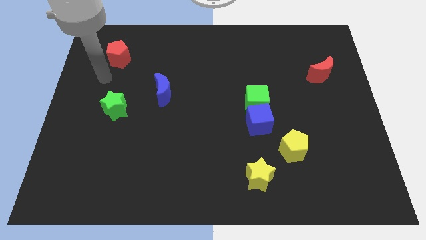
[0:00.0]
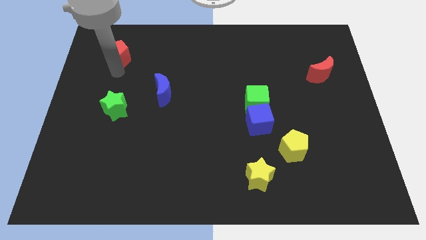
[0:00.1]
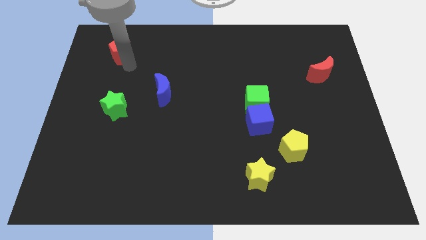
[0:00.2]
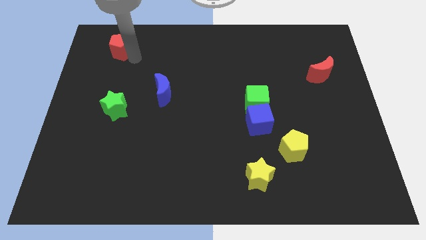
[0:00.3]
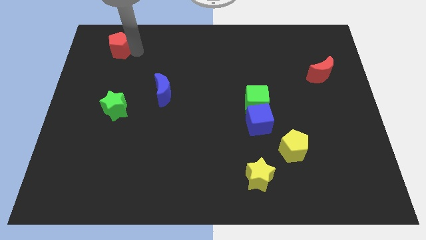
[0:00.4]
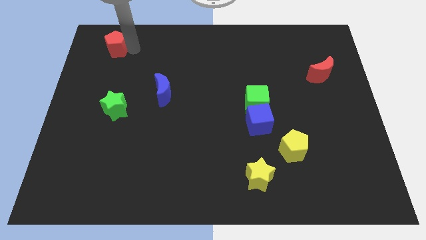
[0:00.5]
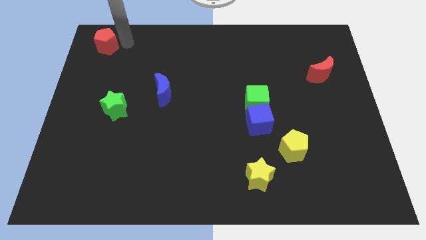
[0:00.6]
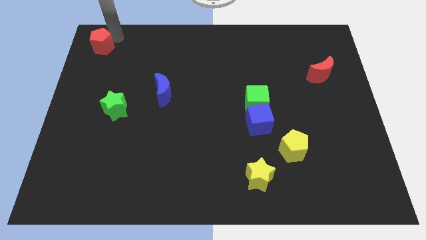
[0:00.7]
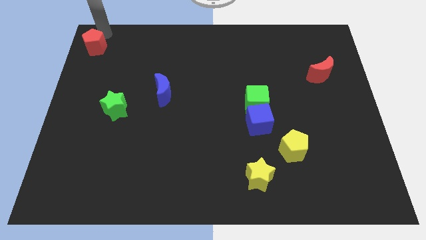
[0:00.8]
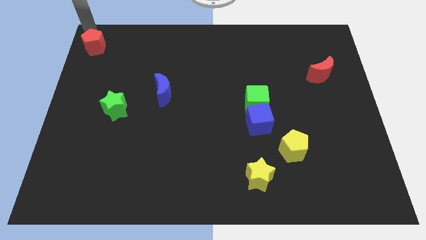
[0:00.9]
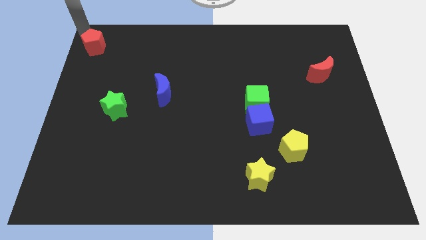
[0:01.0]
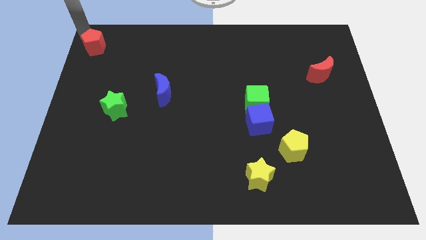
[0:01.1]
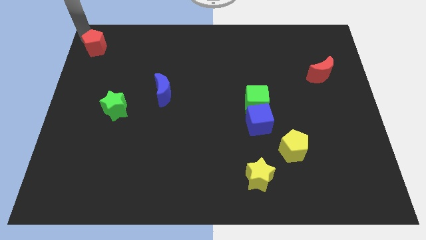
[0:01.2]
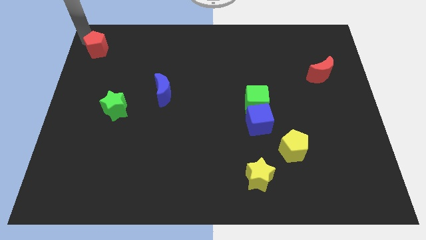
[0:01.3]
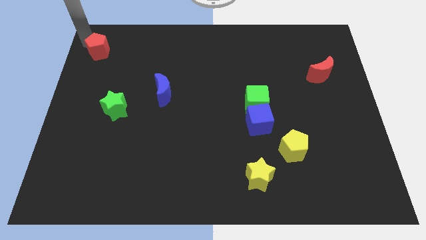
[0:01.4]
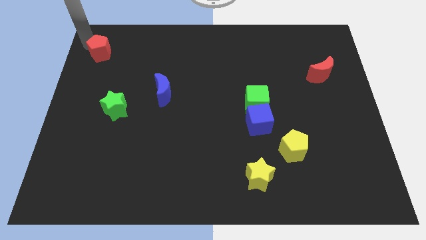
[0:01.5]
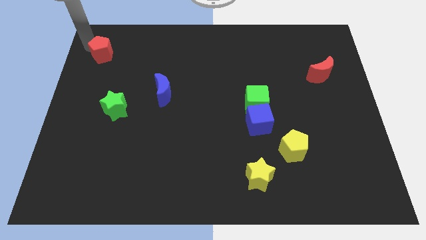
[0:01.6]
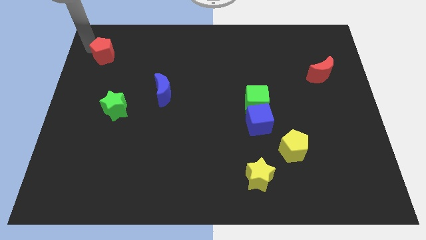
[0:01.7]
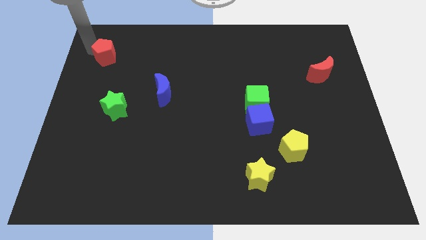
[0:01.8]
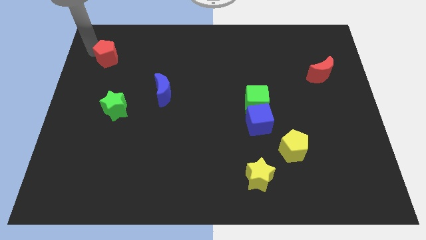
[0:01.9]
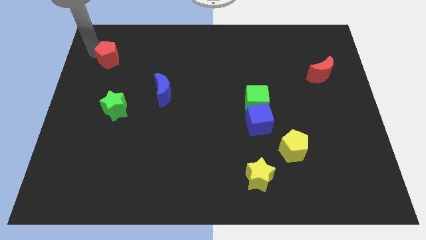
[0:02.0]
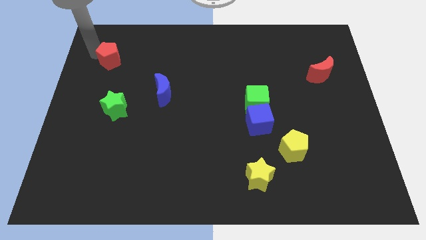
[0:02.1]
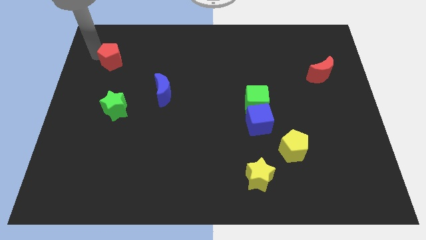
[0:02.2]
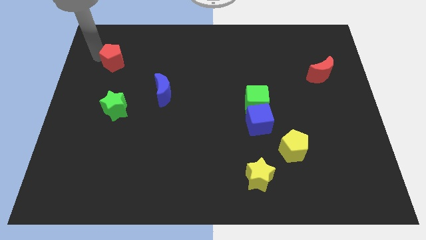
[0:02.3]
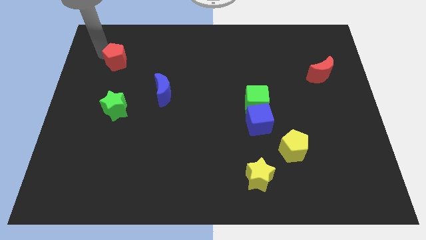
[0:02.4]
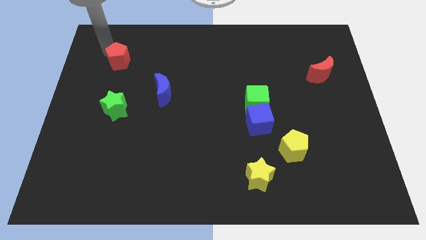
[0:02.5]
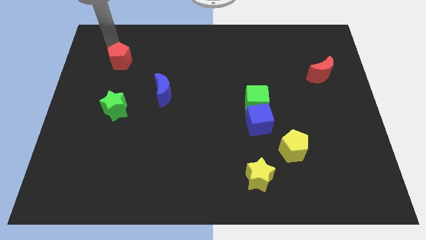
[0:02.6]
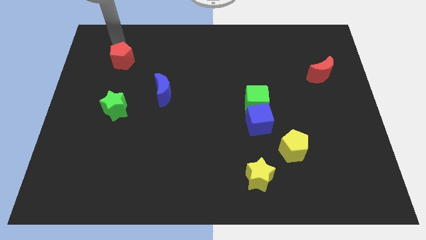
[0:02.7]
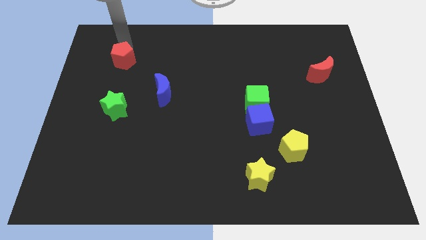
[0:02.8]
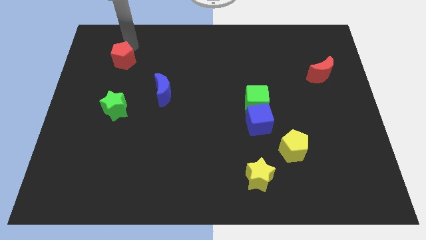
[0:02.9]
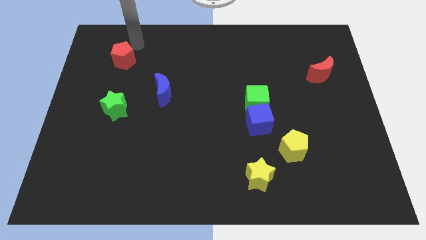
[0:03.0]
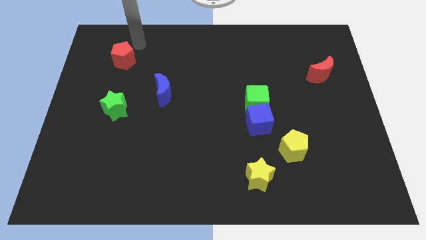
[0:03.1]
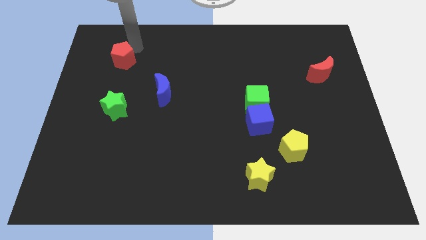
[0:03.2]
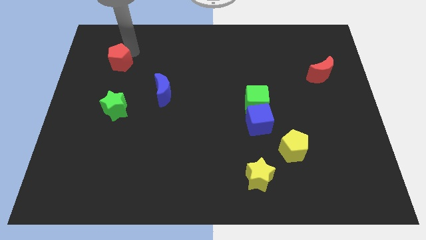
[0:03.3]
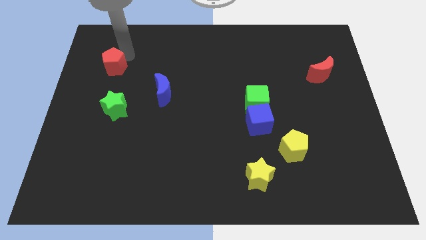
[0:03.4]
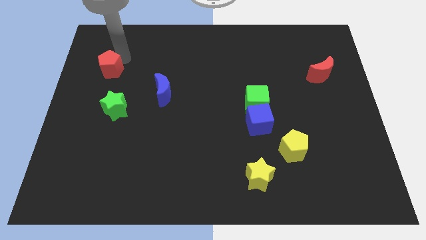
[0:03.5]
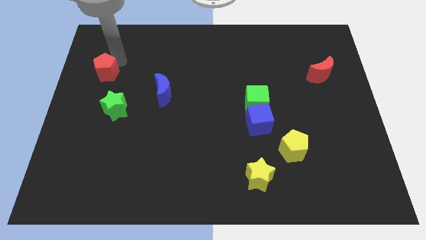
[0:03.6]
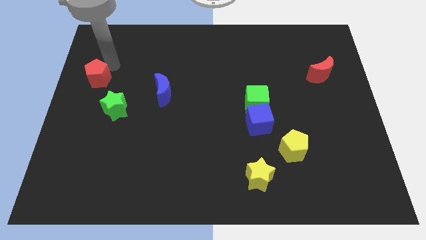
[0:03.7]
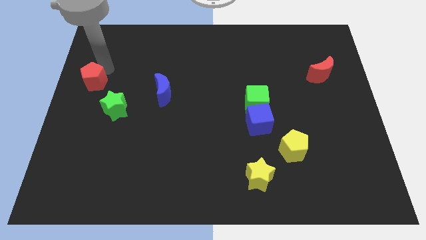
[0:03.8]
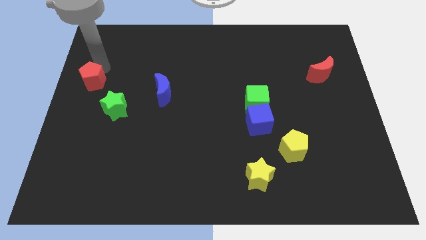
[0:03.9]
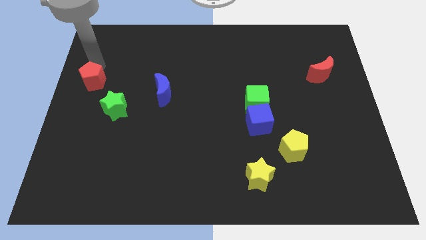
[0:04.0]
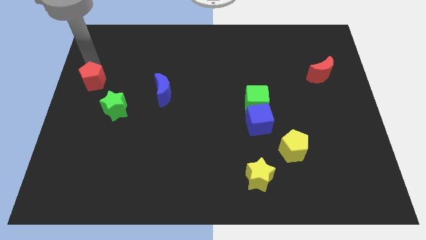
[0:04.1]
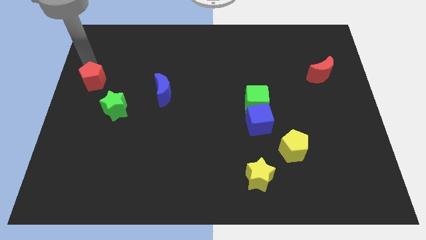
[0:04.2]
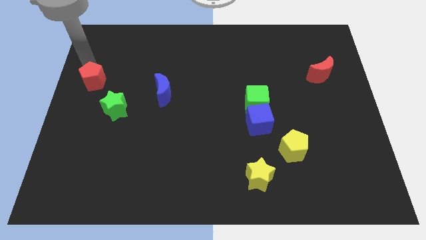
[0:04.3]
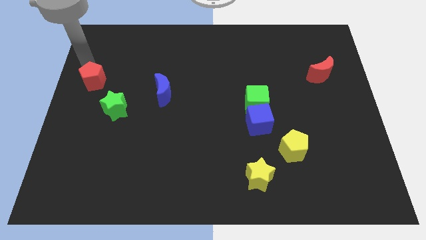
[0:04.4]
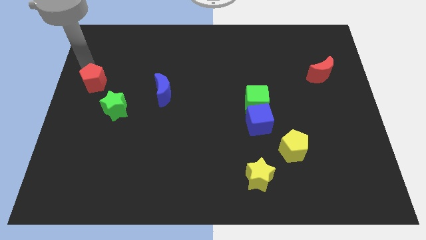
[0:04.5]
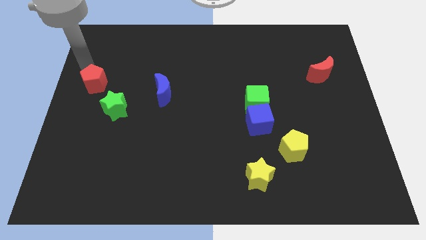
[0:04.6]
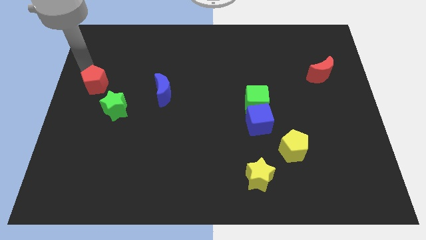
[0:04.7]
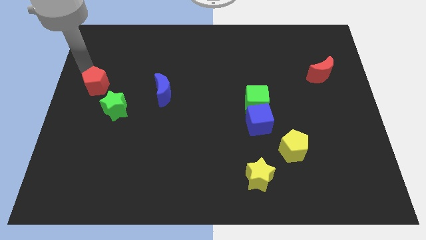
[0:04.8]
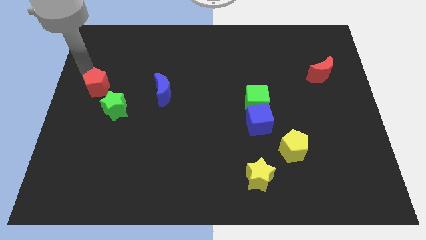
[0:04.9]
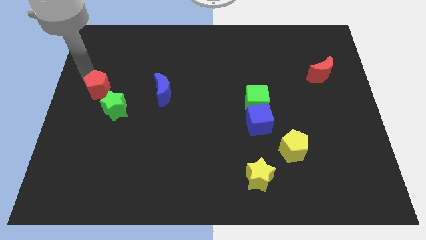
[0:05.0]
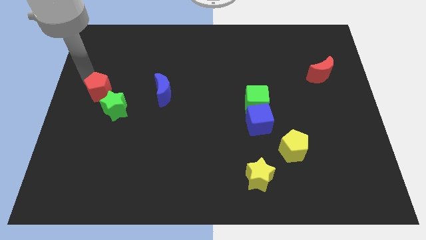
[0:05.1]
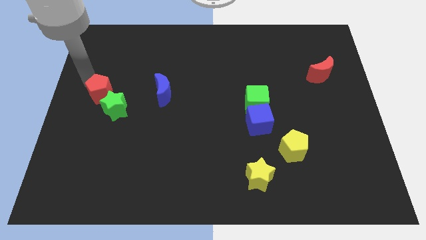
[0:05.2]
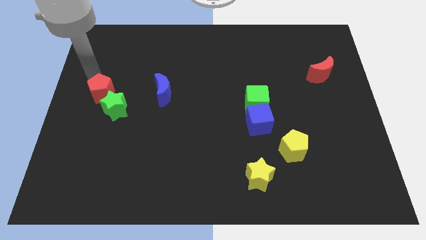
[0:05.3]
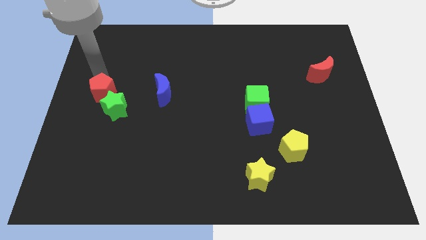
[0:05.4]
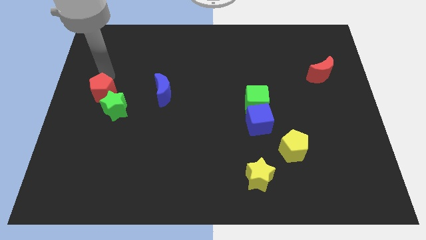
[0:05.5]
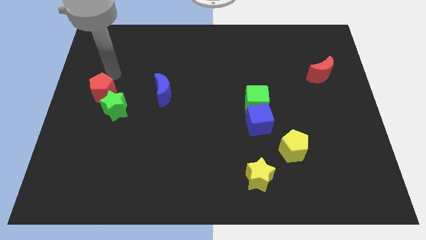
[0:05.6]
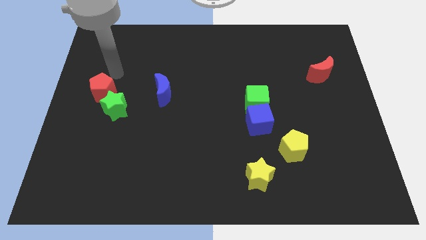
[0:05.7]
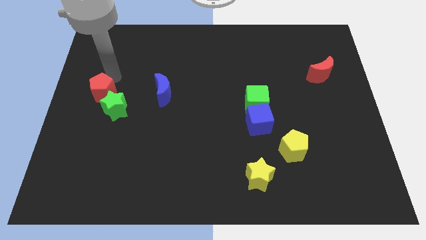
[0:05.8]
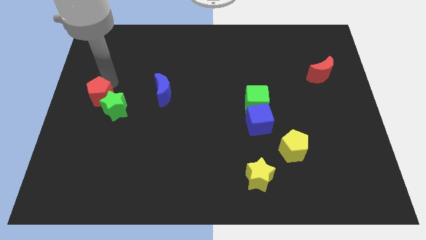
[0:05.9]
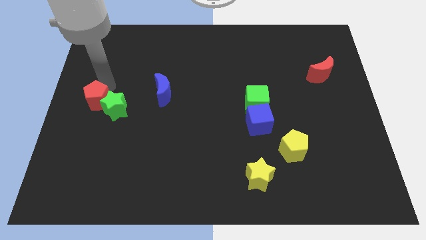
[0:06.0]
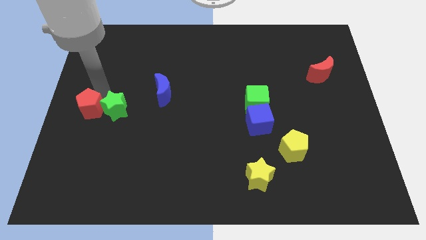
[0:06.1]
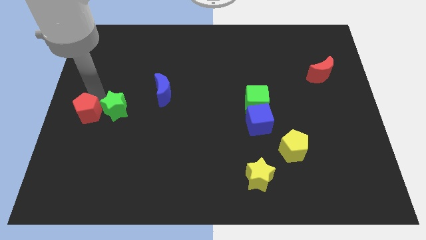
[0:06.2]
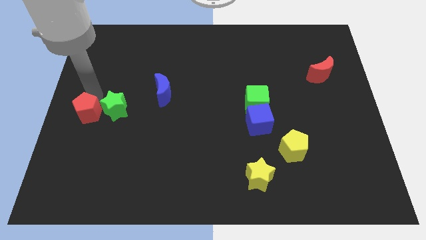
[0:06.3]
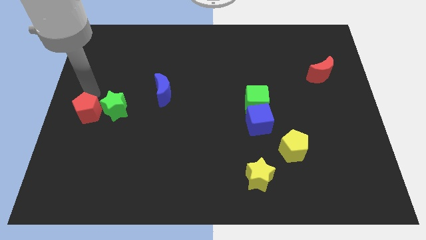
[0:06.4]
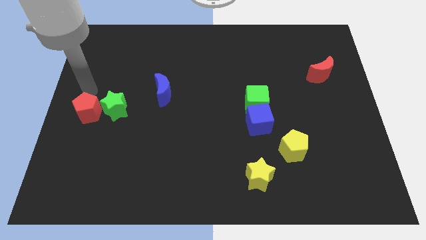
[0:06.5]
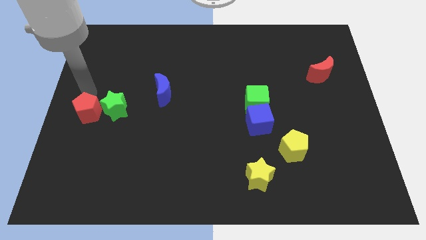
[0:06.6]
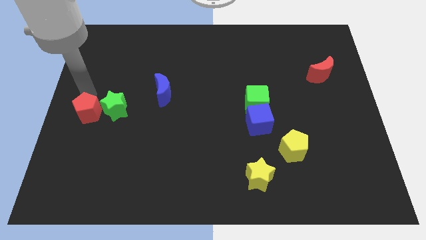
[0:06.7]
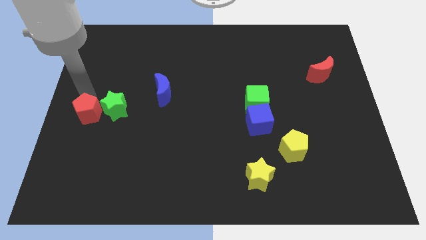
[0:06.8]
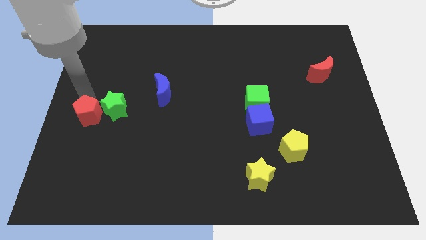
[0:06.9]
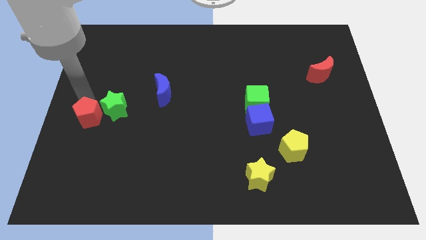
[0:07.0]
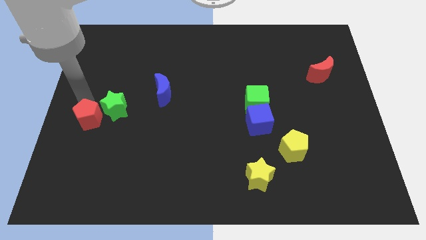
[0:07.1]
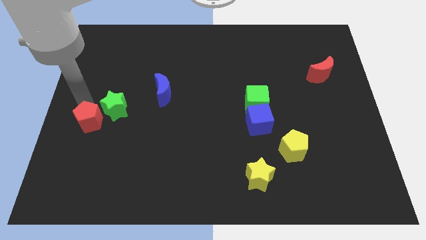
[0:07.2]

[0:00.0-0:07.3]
move the red pentagon downwards

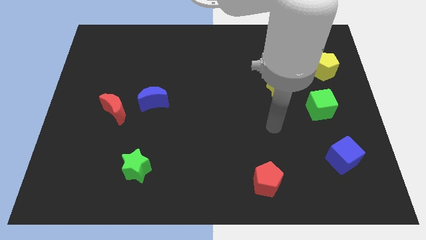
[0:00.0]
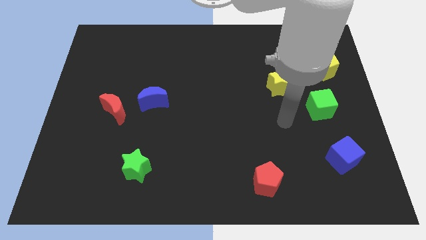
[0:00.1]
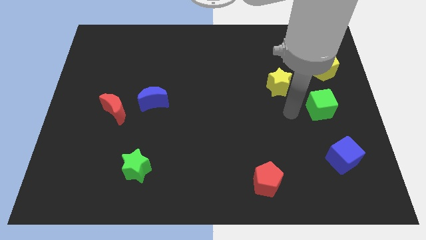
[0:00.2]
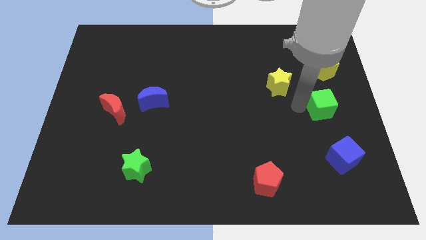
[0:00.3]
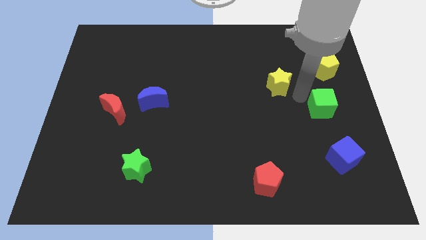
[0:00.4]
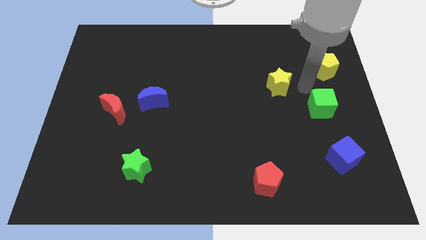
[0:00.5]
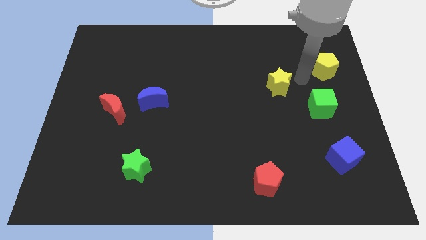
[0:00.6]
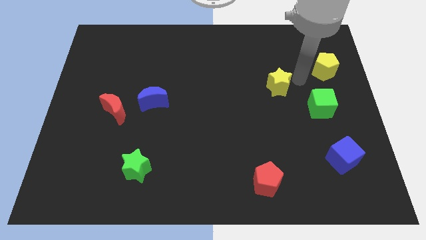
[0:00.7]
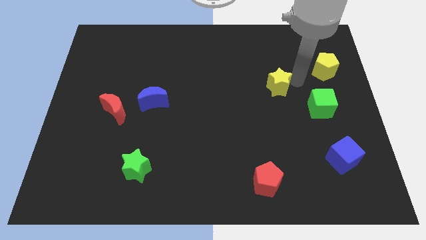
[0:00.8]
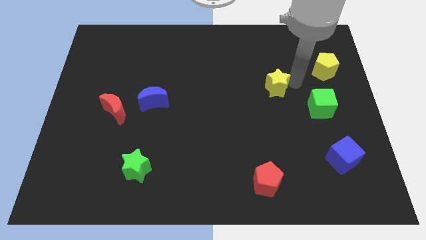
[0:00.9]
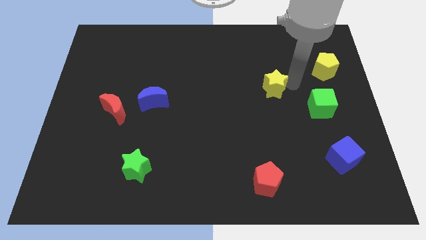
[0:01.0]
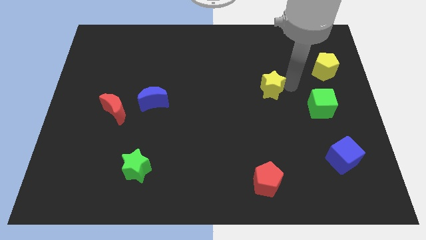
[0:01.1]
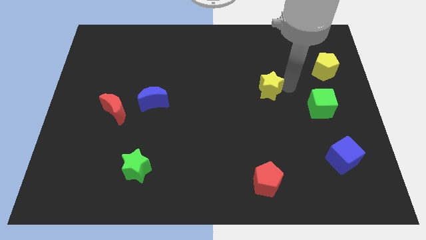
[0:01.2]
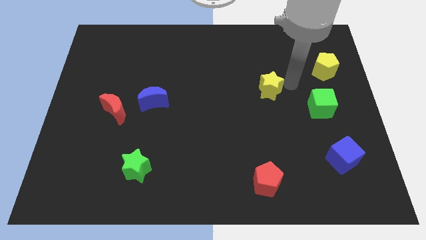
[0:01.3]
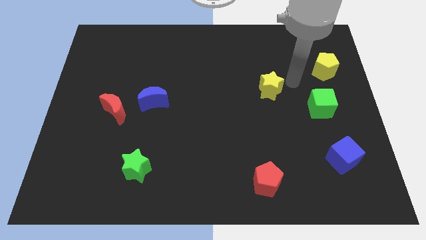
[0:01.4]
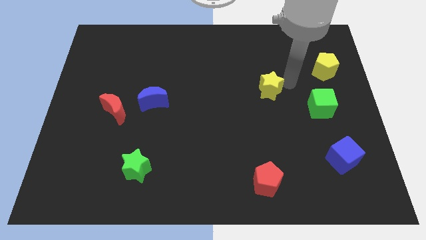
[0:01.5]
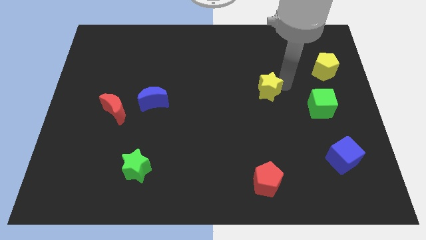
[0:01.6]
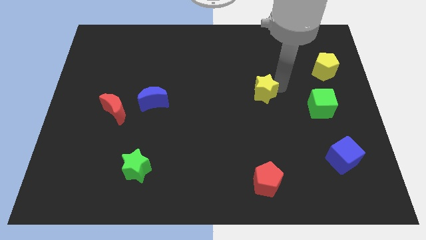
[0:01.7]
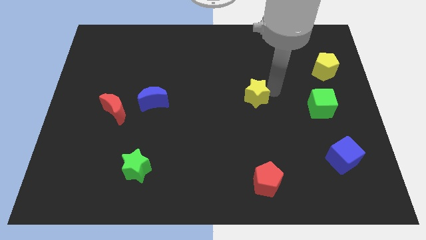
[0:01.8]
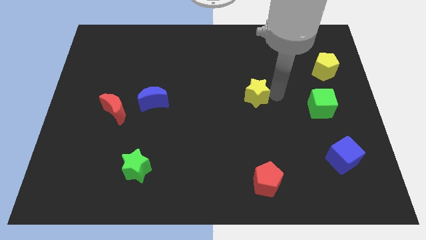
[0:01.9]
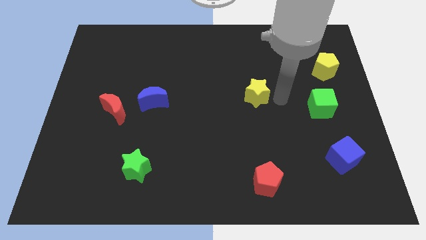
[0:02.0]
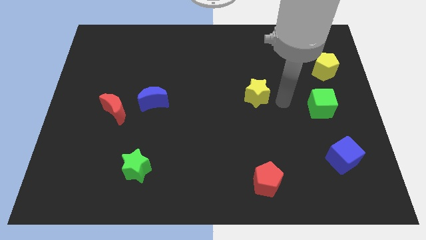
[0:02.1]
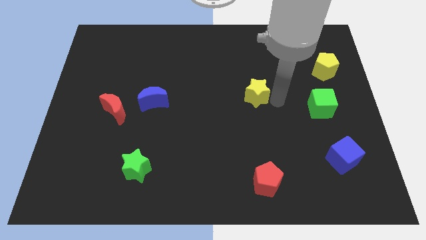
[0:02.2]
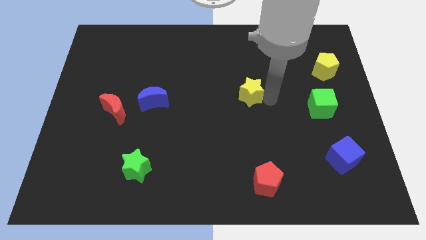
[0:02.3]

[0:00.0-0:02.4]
push the yellow star slightly to the left
